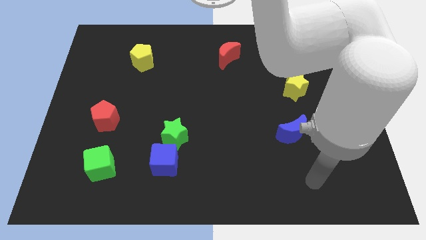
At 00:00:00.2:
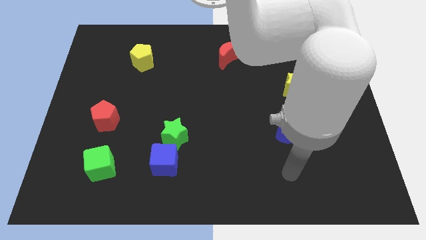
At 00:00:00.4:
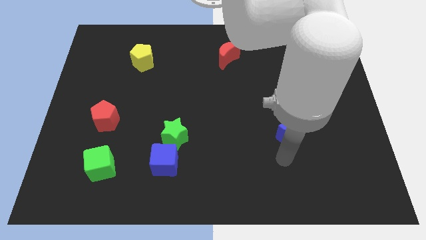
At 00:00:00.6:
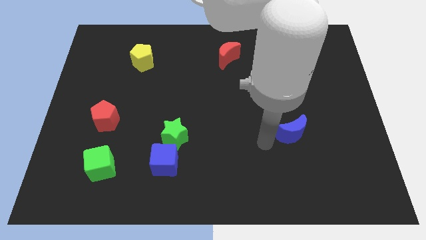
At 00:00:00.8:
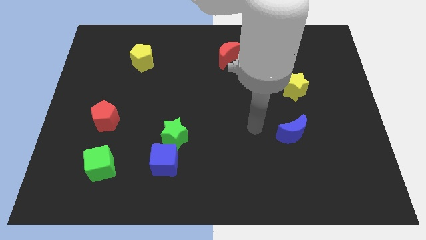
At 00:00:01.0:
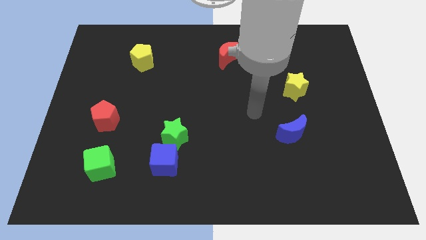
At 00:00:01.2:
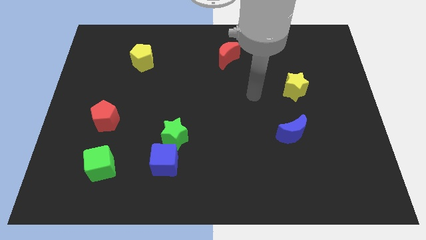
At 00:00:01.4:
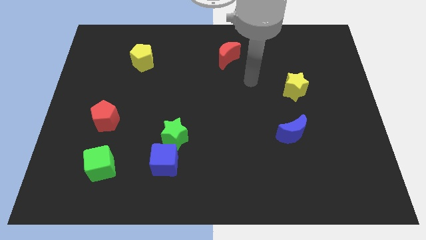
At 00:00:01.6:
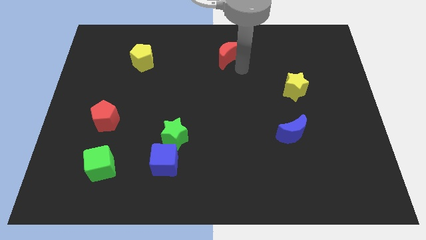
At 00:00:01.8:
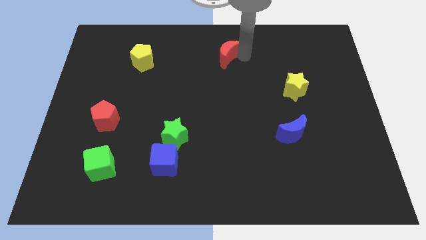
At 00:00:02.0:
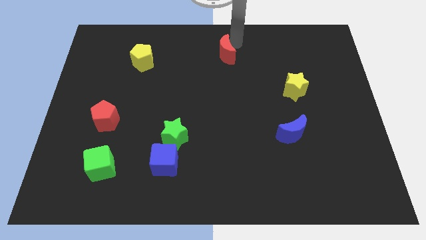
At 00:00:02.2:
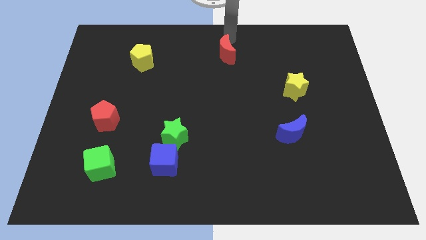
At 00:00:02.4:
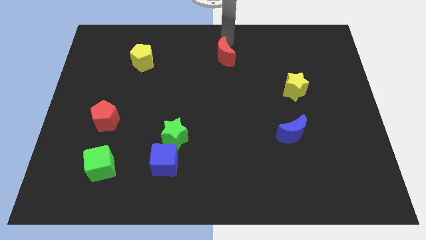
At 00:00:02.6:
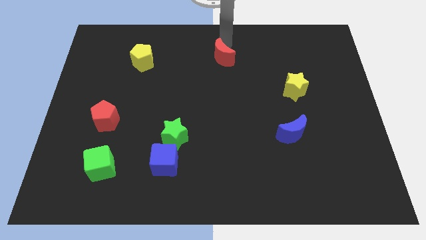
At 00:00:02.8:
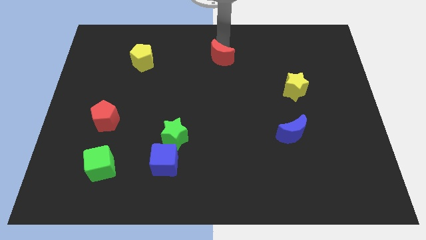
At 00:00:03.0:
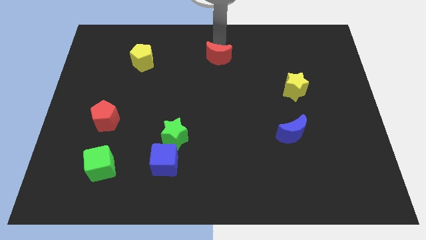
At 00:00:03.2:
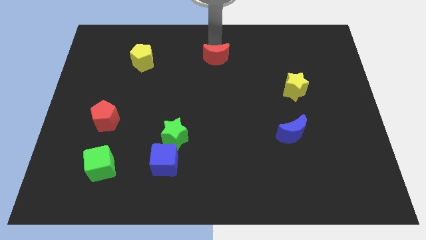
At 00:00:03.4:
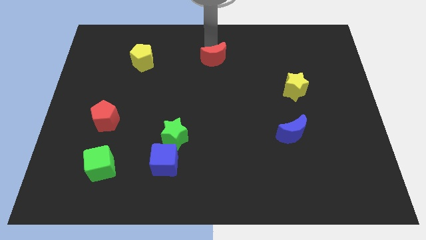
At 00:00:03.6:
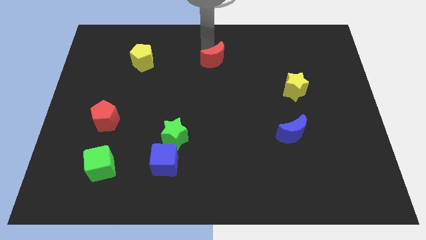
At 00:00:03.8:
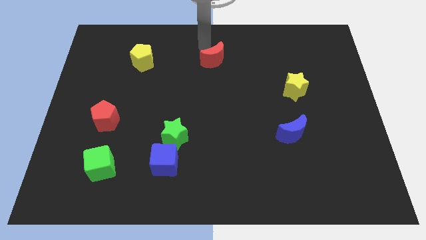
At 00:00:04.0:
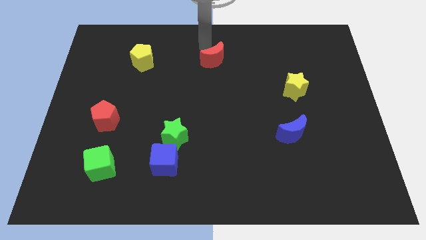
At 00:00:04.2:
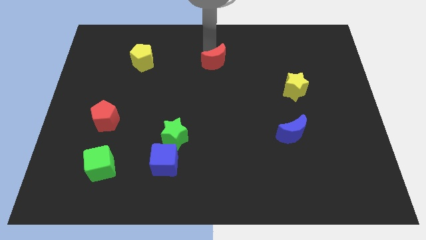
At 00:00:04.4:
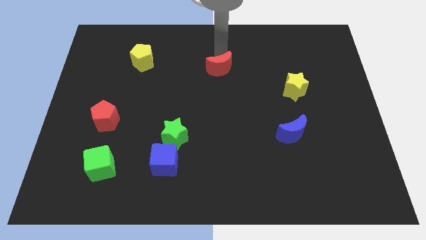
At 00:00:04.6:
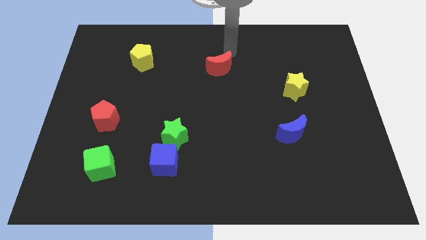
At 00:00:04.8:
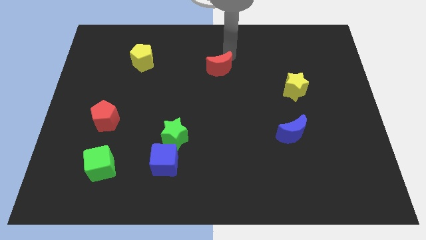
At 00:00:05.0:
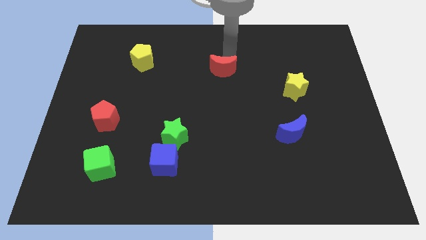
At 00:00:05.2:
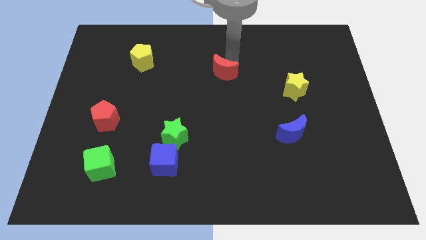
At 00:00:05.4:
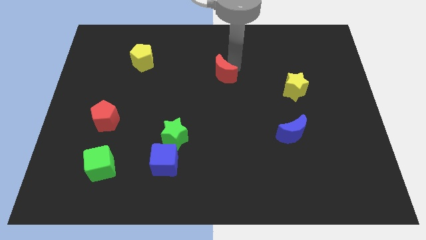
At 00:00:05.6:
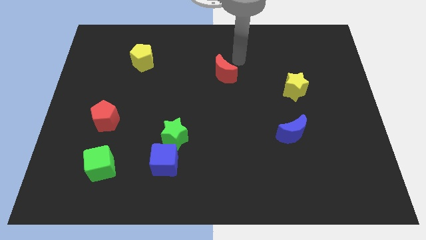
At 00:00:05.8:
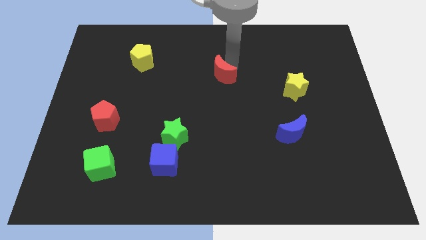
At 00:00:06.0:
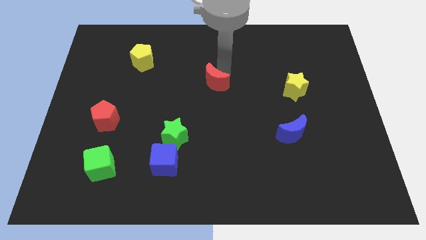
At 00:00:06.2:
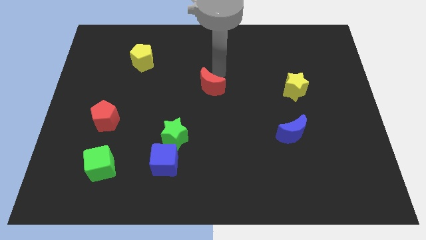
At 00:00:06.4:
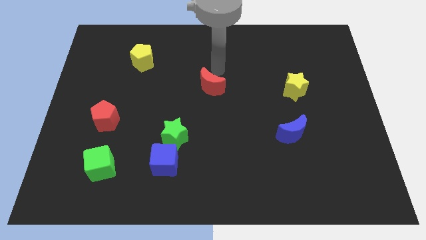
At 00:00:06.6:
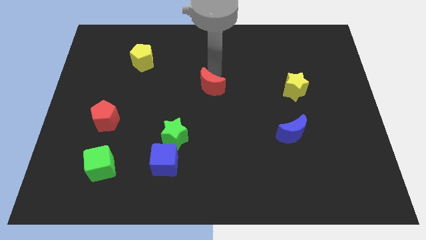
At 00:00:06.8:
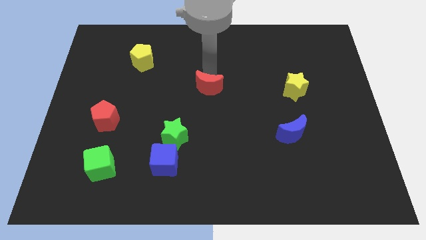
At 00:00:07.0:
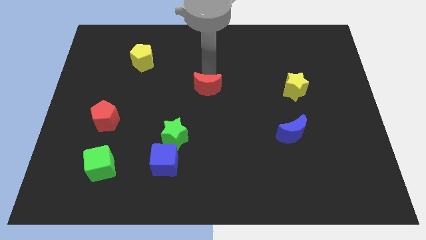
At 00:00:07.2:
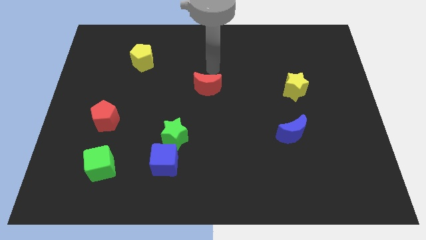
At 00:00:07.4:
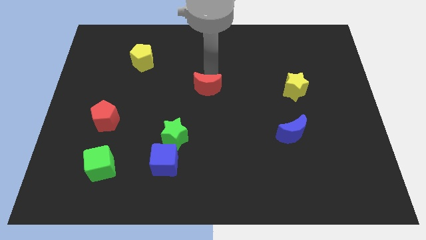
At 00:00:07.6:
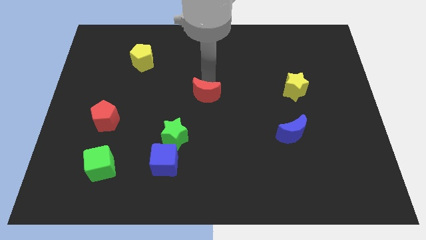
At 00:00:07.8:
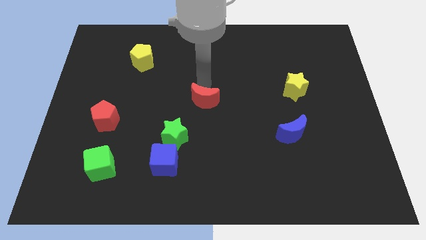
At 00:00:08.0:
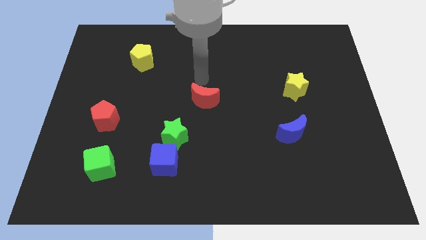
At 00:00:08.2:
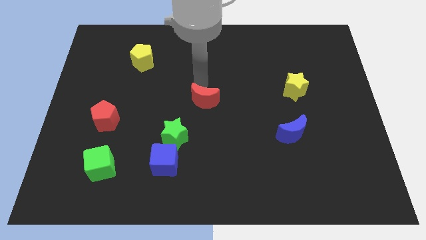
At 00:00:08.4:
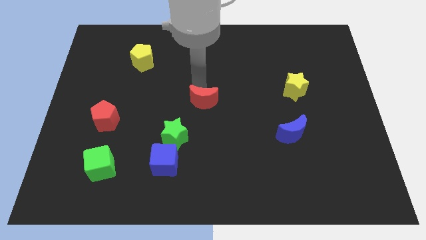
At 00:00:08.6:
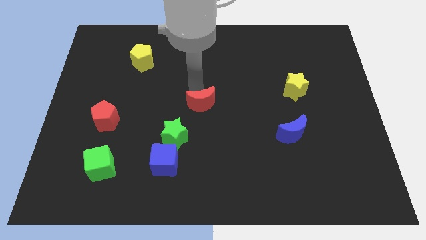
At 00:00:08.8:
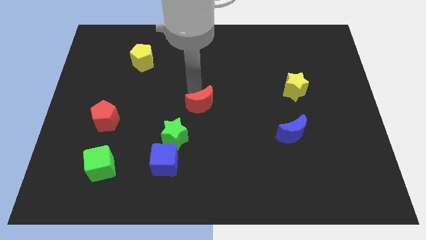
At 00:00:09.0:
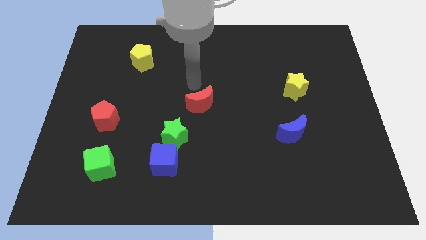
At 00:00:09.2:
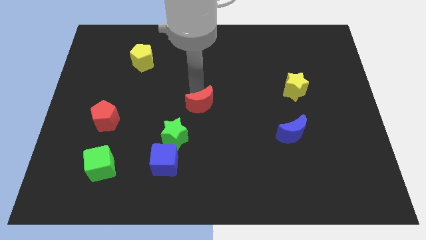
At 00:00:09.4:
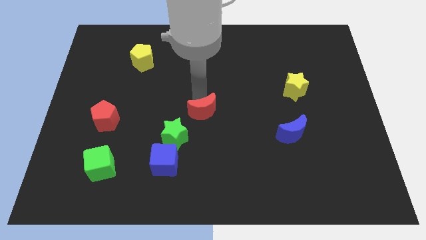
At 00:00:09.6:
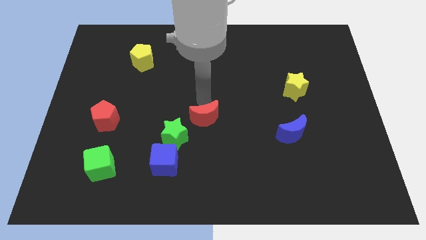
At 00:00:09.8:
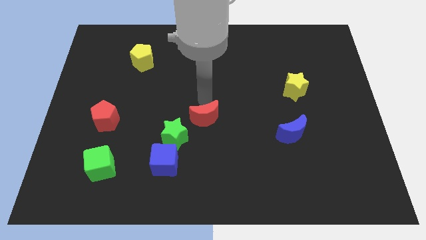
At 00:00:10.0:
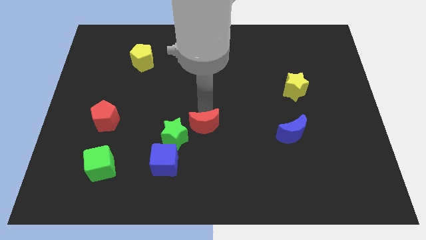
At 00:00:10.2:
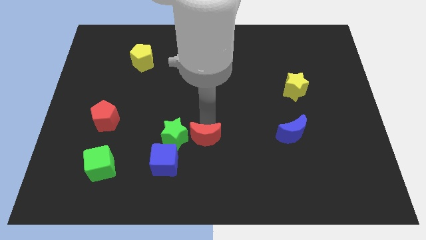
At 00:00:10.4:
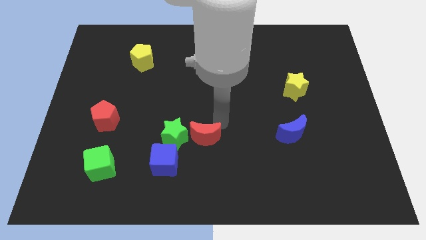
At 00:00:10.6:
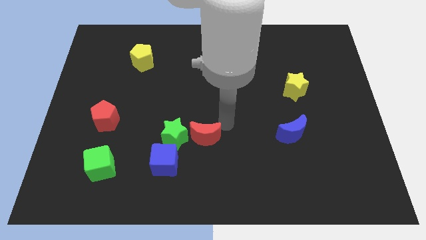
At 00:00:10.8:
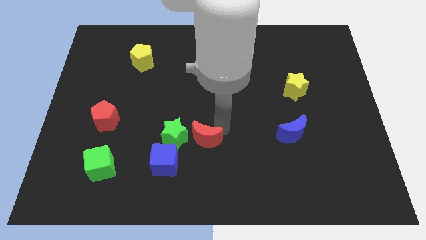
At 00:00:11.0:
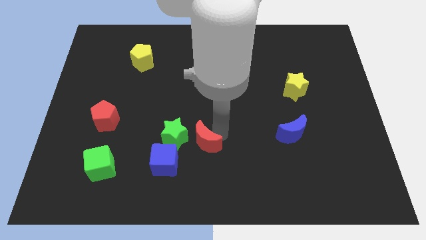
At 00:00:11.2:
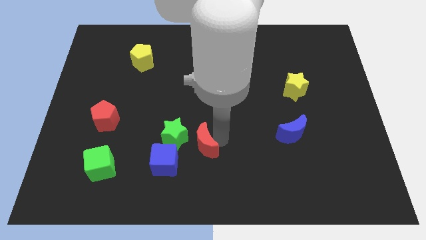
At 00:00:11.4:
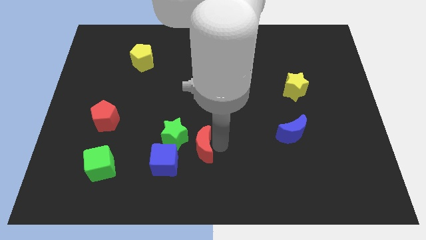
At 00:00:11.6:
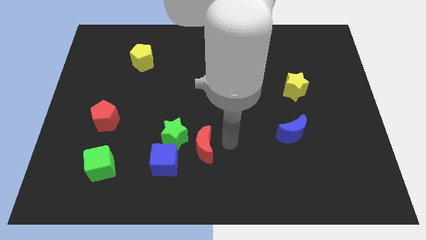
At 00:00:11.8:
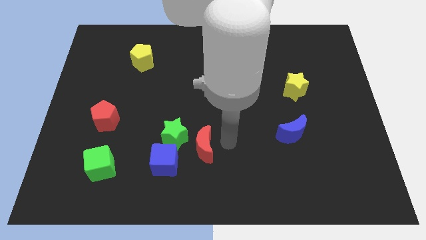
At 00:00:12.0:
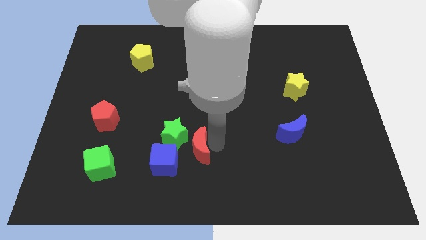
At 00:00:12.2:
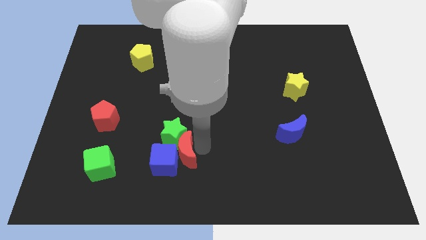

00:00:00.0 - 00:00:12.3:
slide the red moon next to the blue cube

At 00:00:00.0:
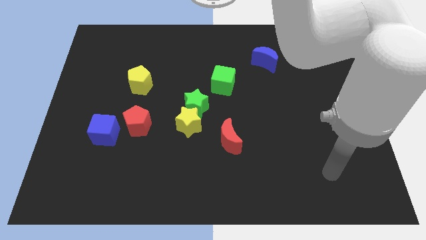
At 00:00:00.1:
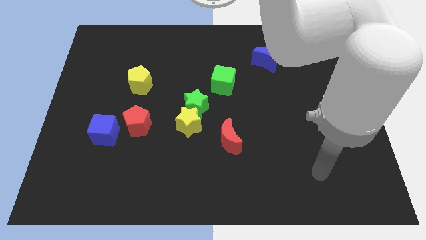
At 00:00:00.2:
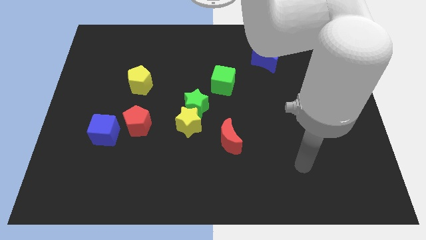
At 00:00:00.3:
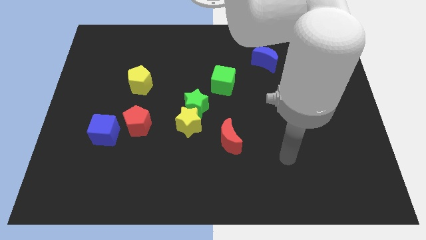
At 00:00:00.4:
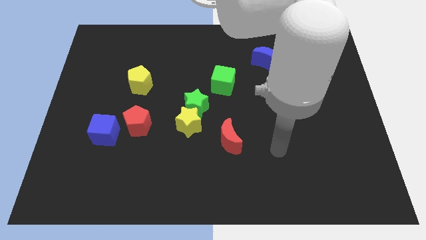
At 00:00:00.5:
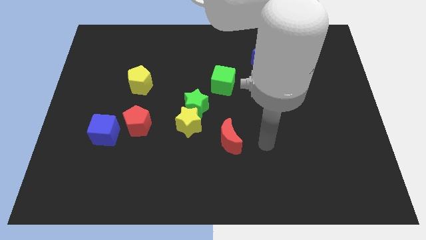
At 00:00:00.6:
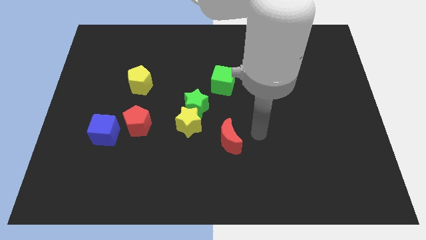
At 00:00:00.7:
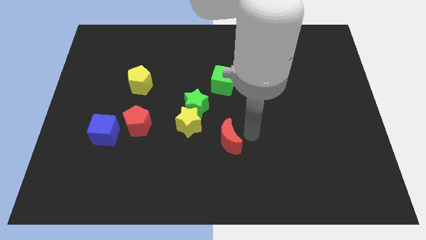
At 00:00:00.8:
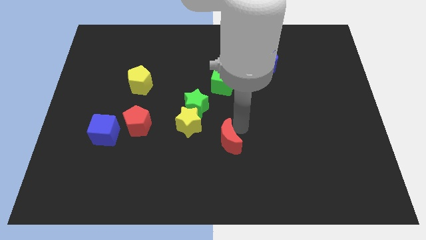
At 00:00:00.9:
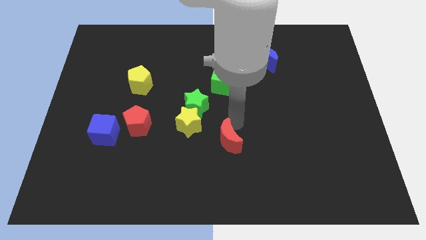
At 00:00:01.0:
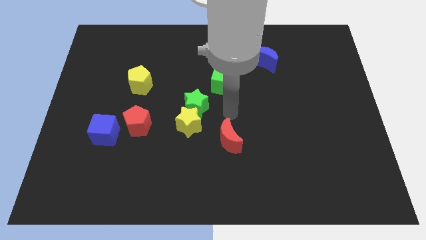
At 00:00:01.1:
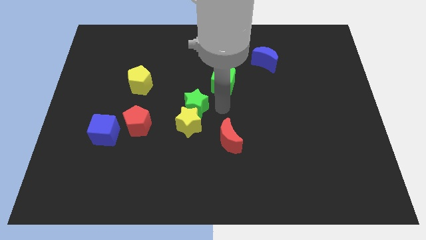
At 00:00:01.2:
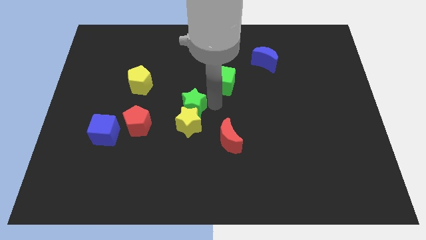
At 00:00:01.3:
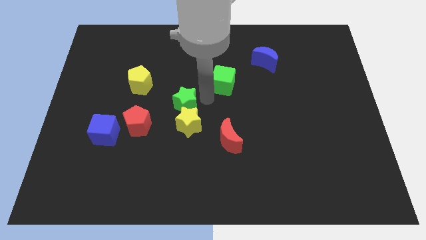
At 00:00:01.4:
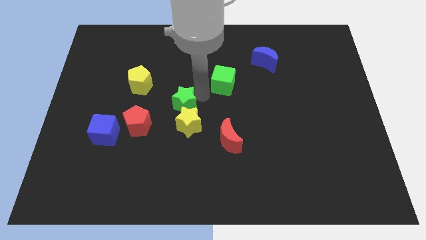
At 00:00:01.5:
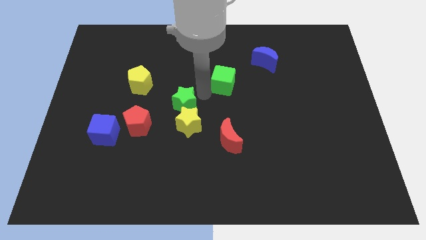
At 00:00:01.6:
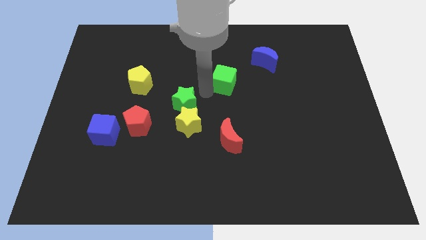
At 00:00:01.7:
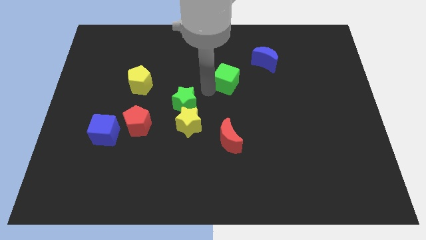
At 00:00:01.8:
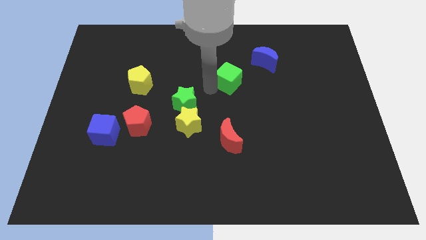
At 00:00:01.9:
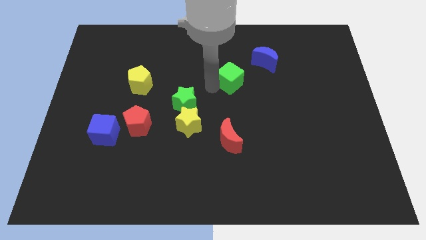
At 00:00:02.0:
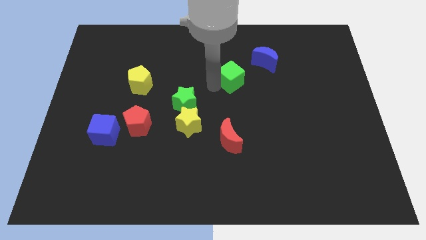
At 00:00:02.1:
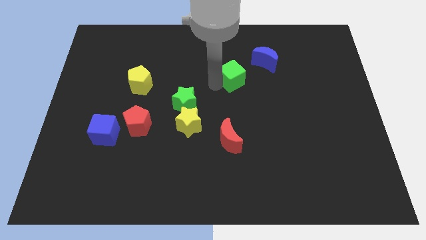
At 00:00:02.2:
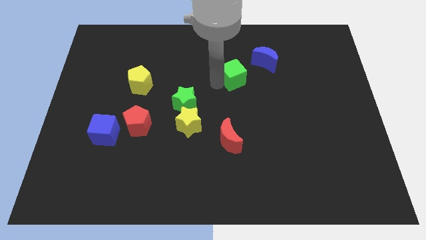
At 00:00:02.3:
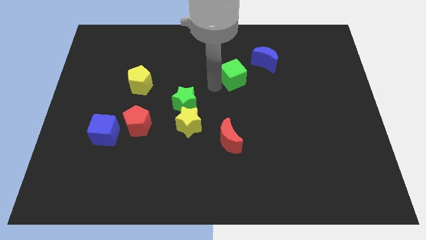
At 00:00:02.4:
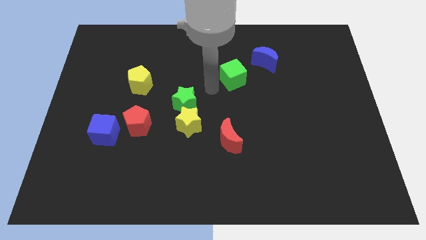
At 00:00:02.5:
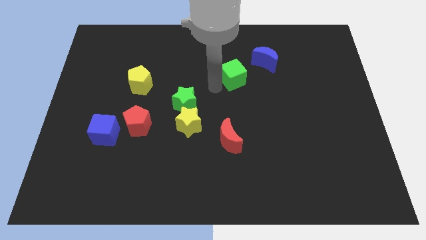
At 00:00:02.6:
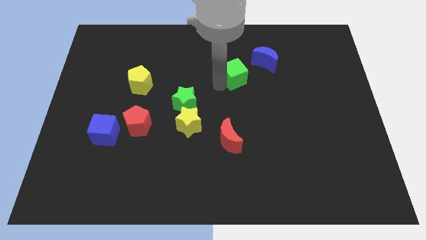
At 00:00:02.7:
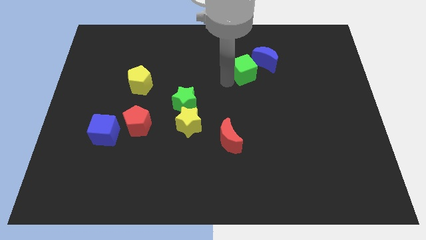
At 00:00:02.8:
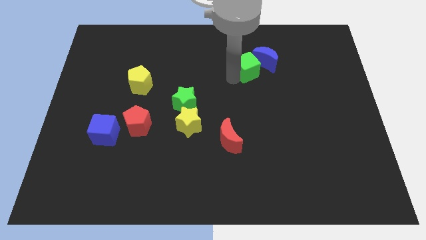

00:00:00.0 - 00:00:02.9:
move the green cube close to the blue moon
